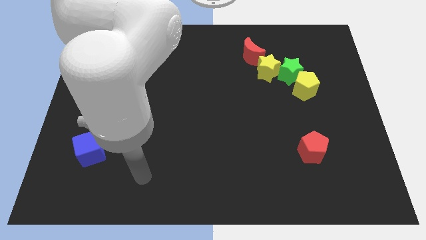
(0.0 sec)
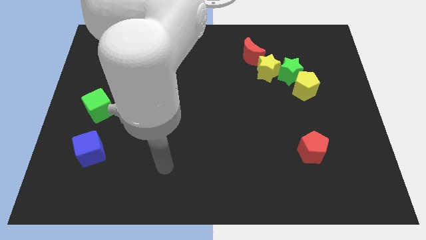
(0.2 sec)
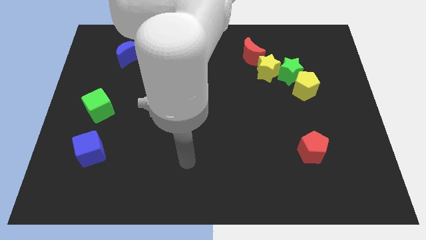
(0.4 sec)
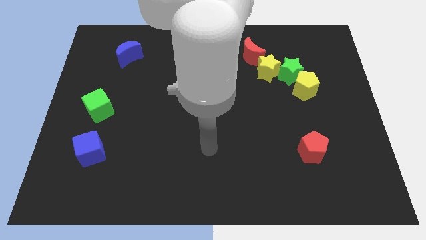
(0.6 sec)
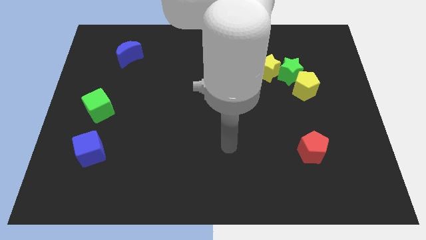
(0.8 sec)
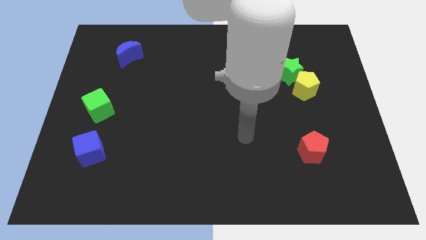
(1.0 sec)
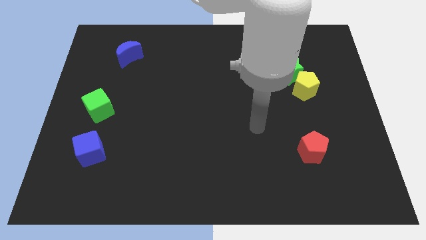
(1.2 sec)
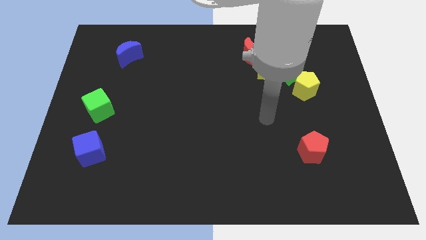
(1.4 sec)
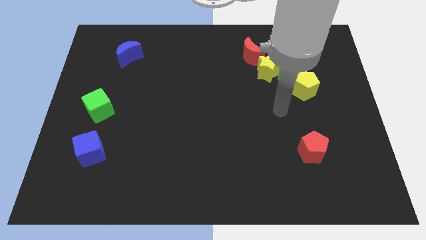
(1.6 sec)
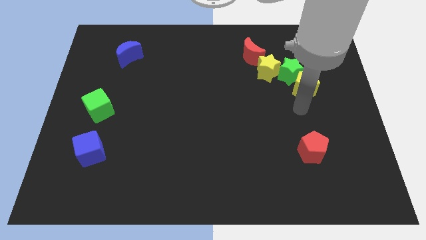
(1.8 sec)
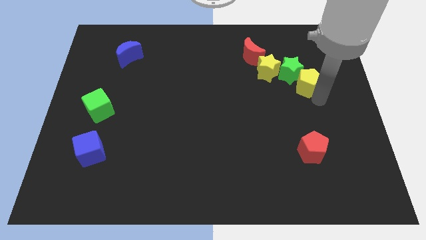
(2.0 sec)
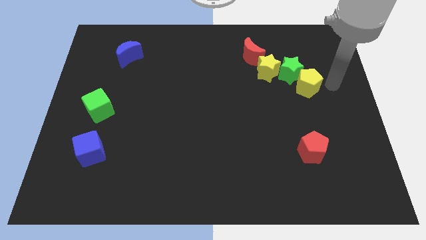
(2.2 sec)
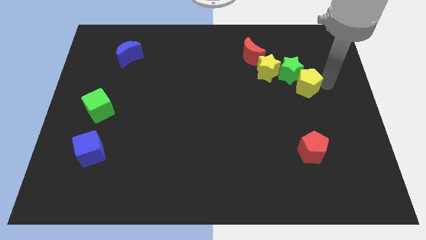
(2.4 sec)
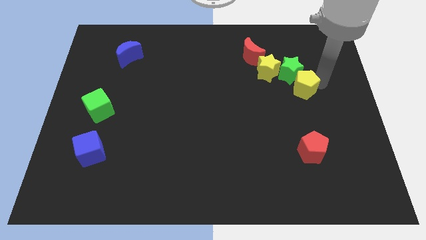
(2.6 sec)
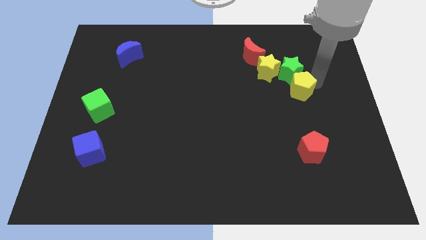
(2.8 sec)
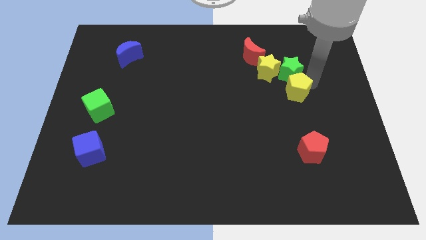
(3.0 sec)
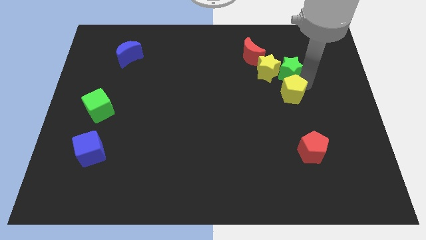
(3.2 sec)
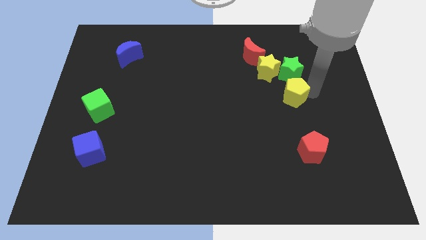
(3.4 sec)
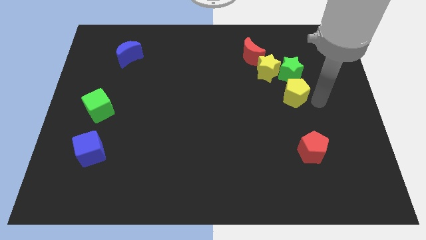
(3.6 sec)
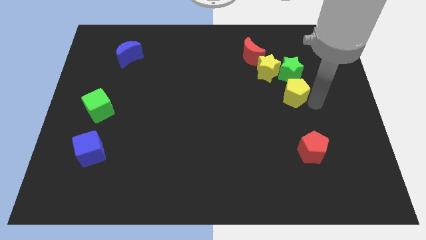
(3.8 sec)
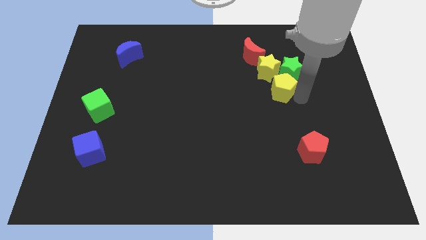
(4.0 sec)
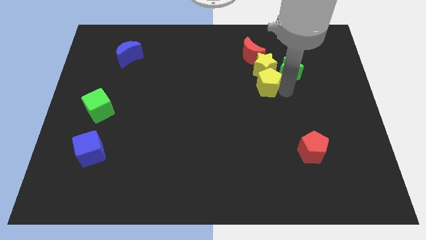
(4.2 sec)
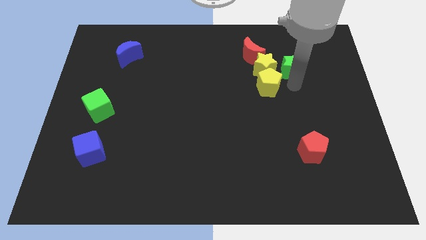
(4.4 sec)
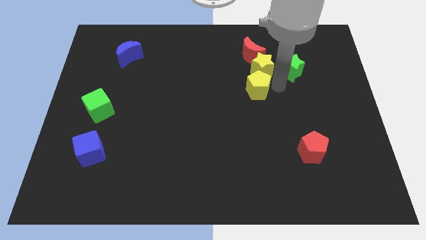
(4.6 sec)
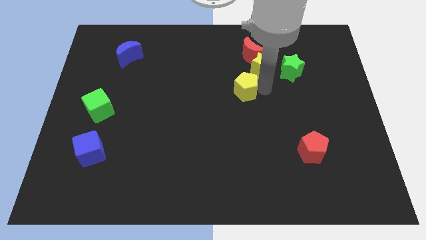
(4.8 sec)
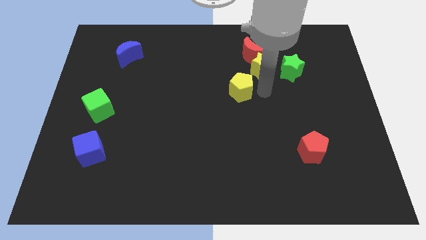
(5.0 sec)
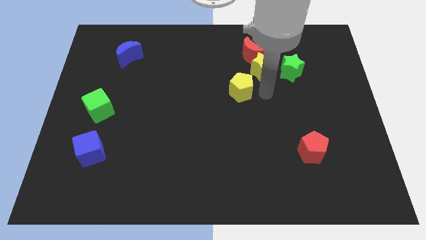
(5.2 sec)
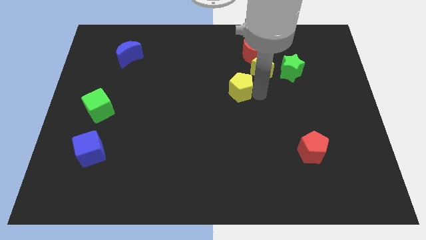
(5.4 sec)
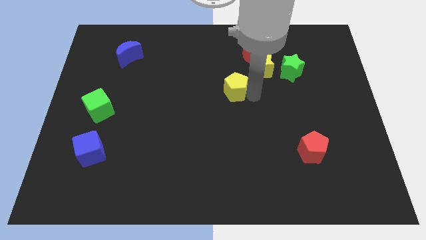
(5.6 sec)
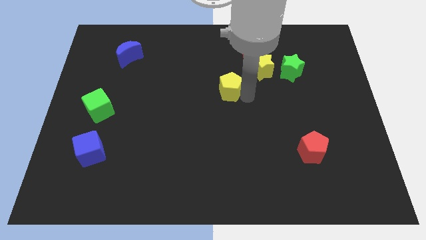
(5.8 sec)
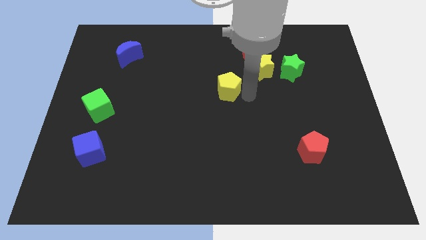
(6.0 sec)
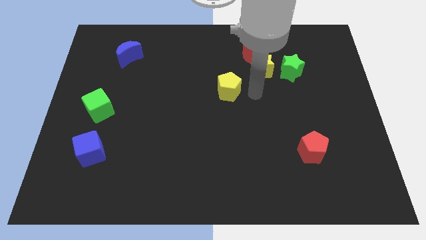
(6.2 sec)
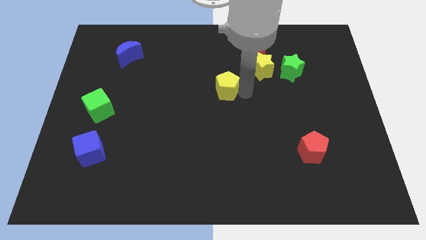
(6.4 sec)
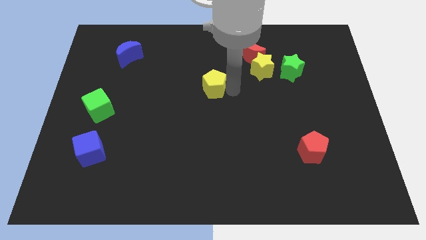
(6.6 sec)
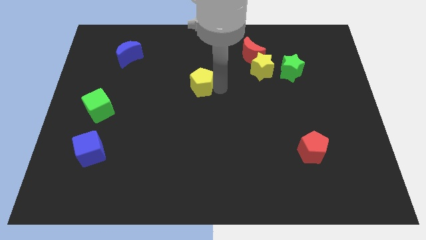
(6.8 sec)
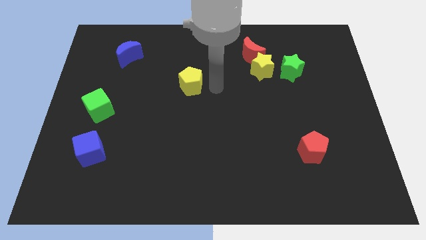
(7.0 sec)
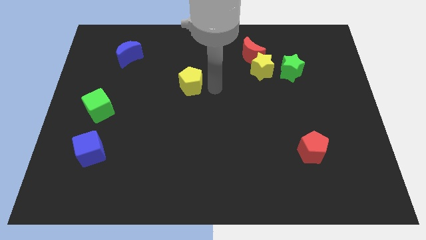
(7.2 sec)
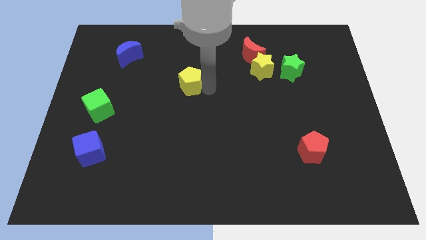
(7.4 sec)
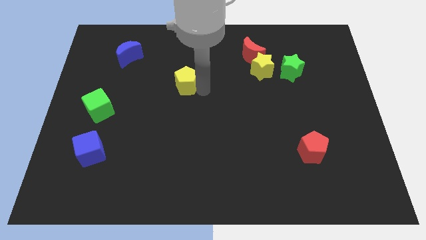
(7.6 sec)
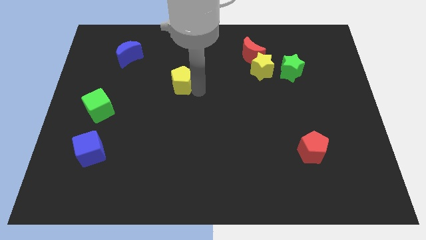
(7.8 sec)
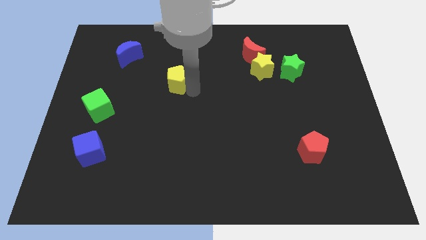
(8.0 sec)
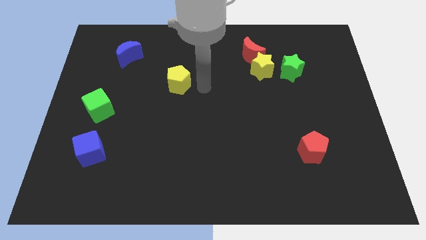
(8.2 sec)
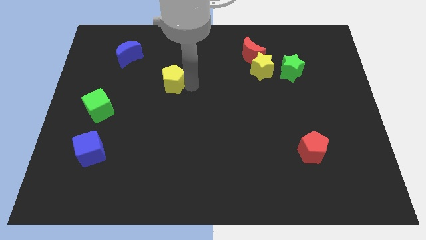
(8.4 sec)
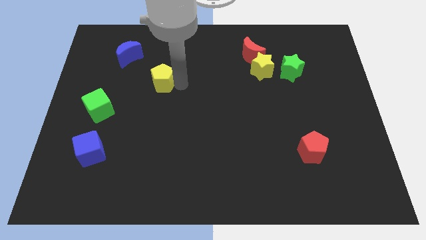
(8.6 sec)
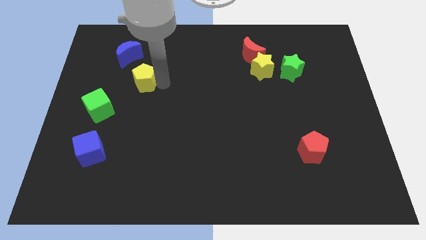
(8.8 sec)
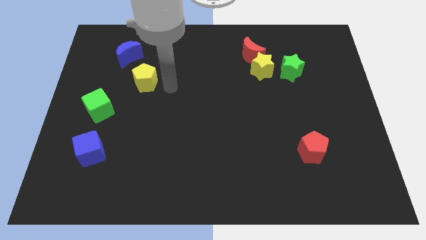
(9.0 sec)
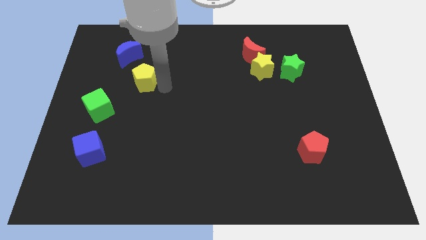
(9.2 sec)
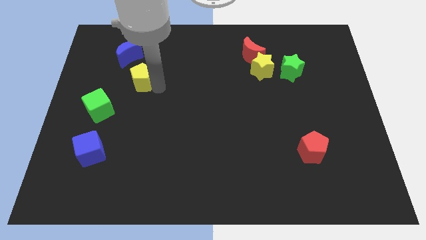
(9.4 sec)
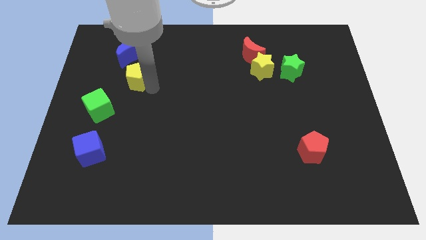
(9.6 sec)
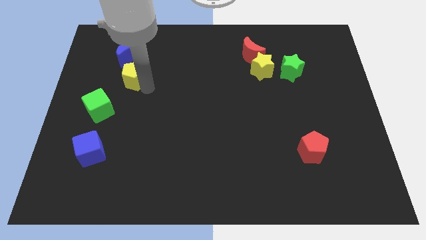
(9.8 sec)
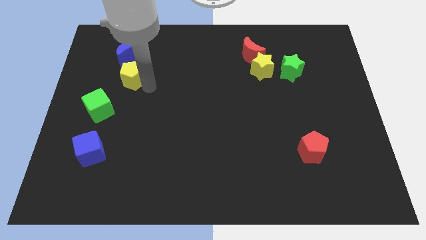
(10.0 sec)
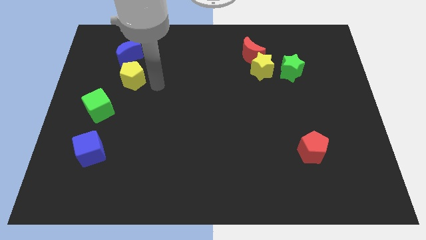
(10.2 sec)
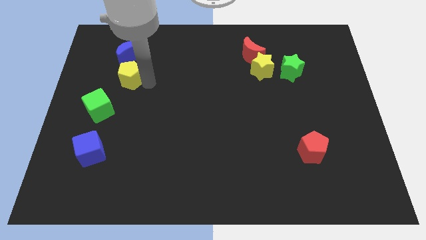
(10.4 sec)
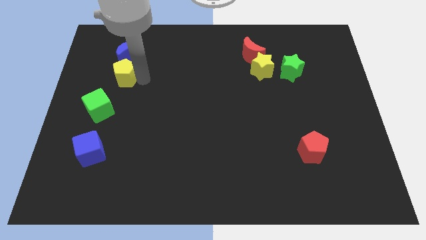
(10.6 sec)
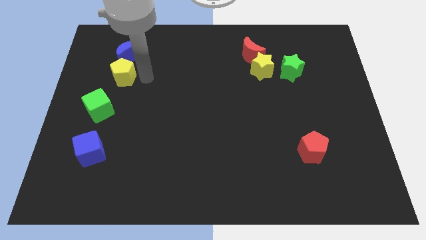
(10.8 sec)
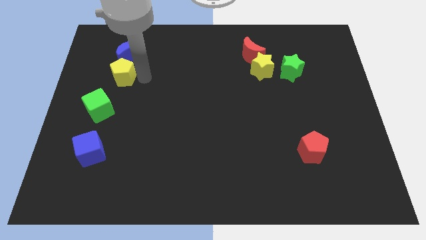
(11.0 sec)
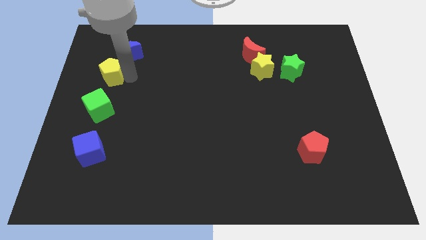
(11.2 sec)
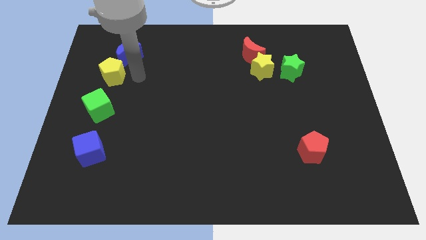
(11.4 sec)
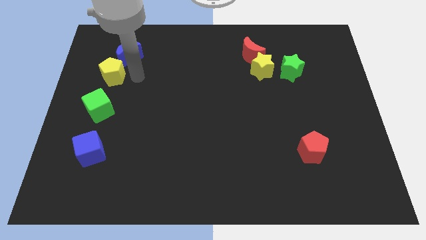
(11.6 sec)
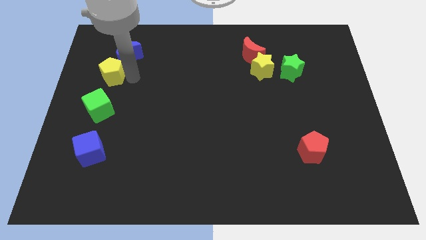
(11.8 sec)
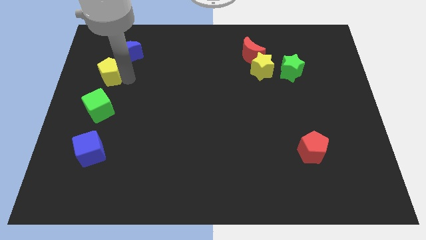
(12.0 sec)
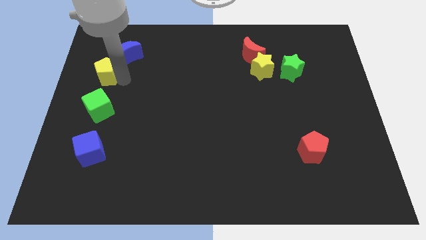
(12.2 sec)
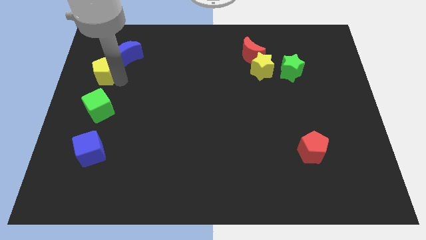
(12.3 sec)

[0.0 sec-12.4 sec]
put the yellow pentagon to the left side

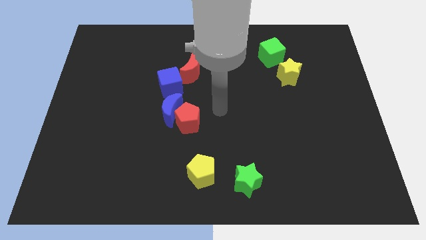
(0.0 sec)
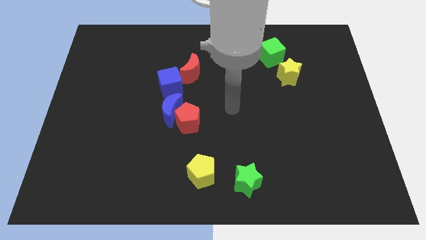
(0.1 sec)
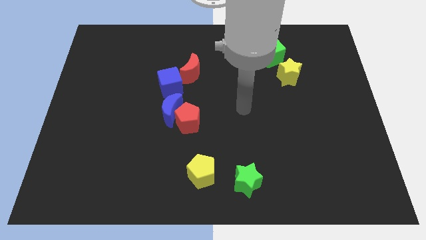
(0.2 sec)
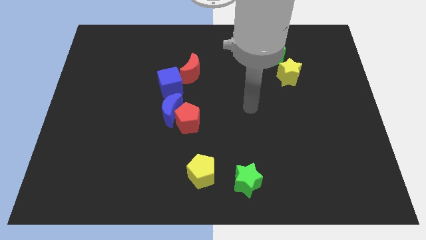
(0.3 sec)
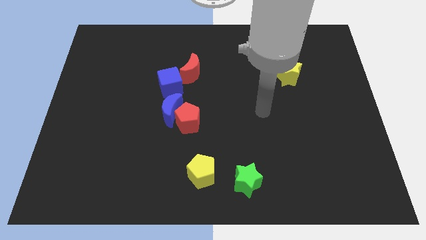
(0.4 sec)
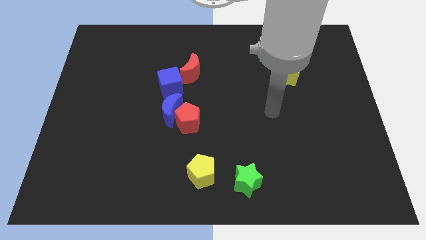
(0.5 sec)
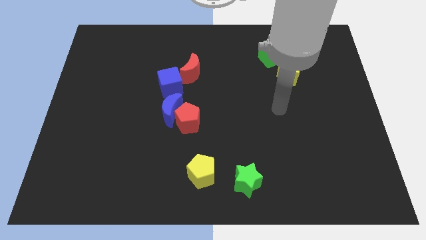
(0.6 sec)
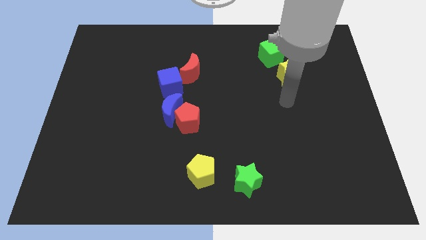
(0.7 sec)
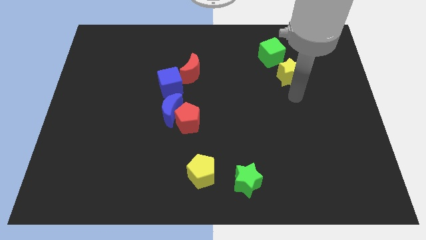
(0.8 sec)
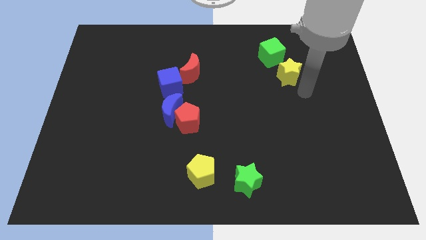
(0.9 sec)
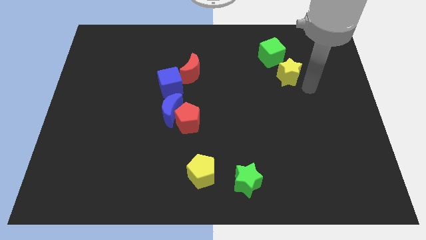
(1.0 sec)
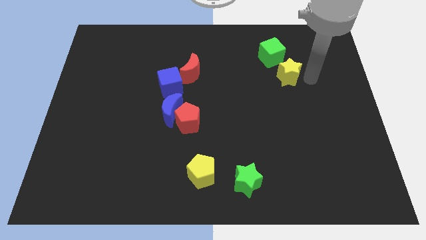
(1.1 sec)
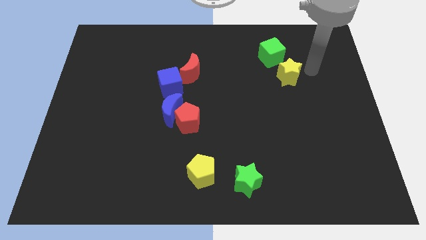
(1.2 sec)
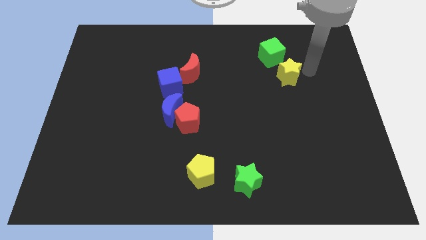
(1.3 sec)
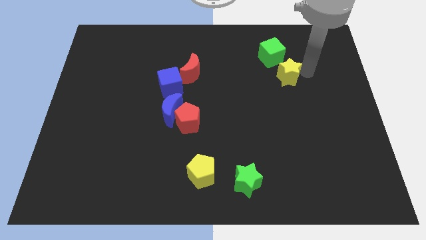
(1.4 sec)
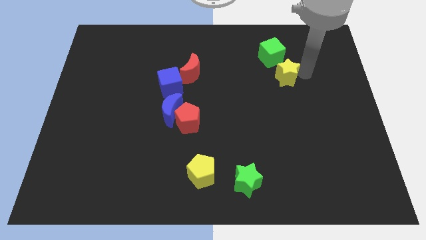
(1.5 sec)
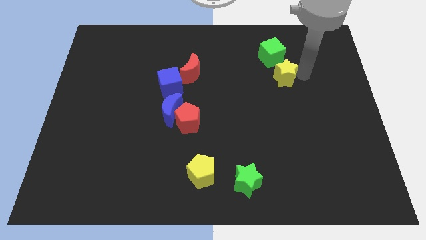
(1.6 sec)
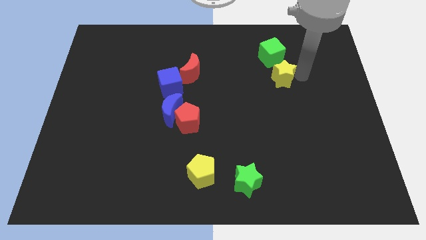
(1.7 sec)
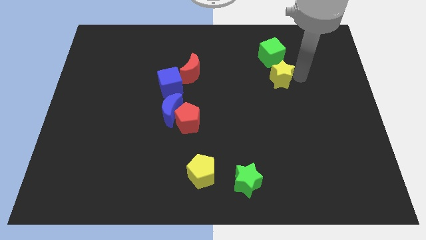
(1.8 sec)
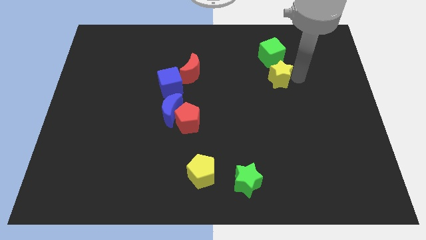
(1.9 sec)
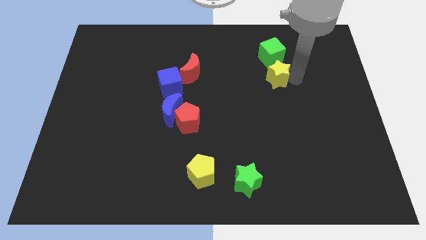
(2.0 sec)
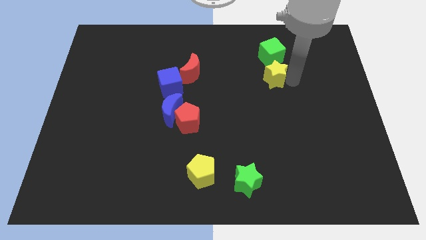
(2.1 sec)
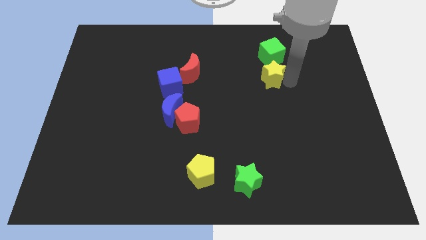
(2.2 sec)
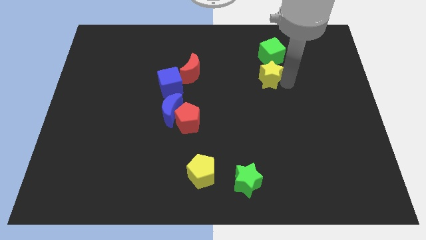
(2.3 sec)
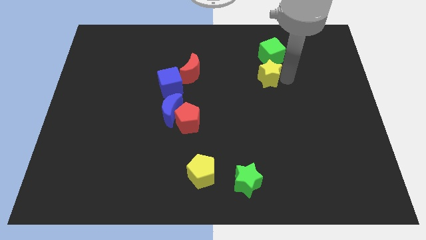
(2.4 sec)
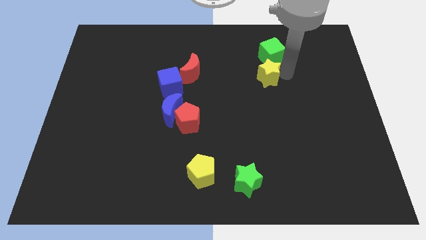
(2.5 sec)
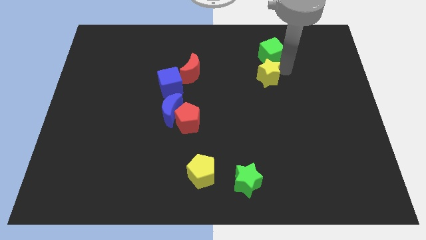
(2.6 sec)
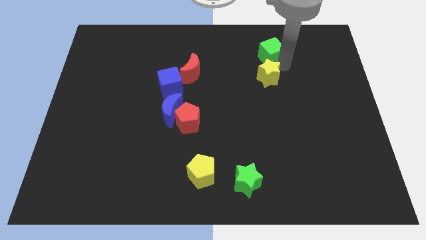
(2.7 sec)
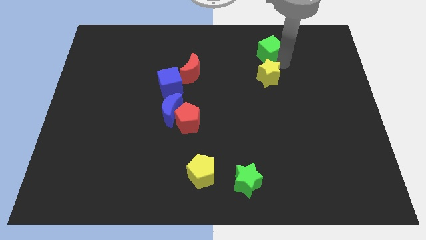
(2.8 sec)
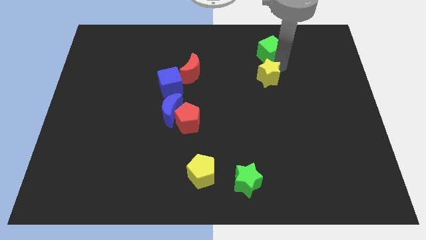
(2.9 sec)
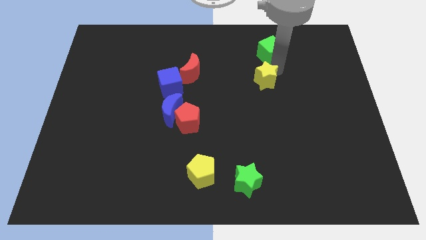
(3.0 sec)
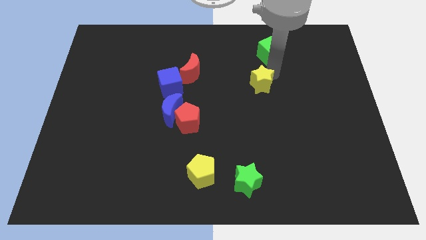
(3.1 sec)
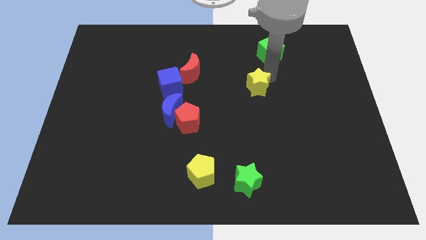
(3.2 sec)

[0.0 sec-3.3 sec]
slide the yellow star to the center of the board
